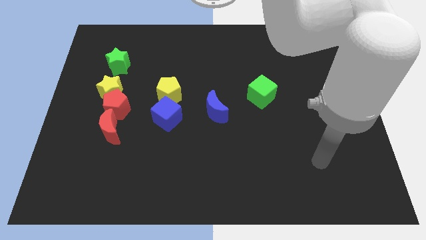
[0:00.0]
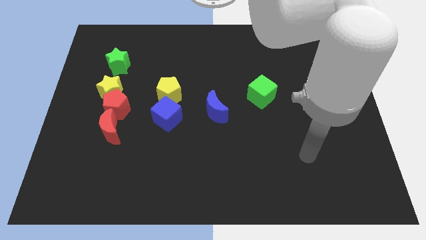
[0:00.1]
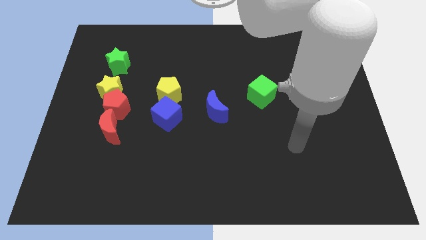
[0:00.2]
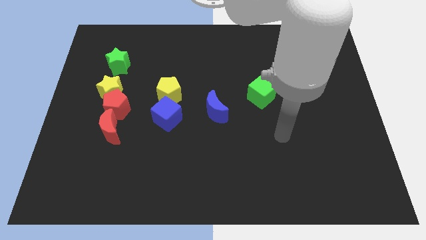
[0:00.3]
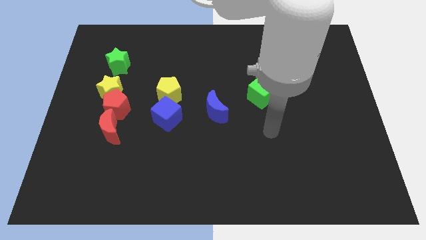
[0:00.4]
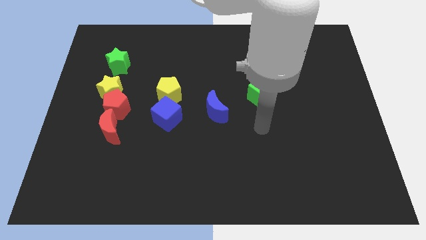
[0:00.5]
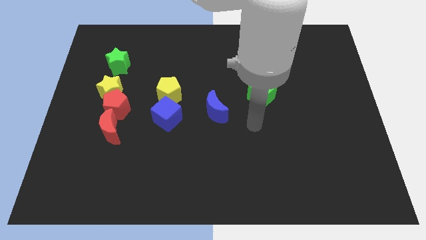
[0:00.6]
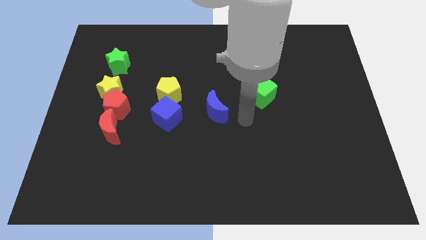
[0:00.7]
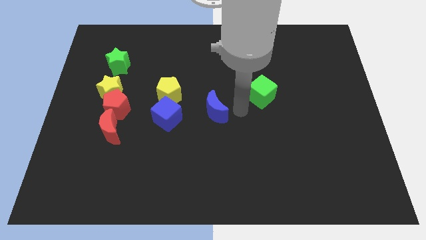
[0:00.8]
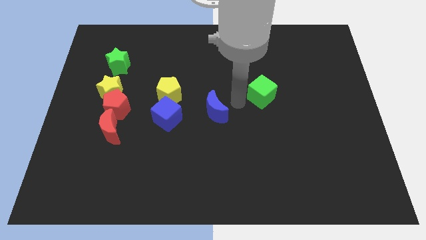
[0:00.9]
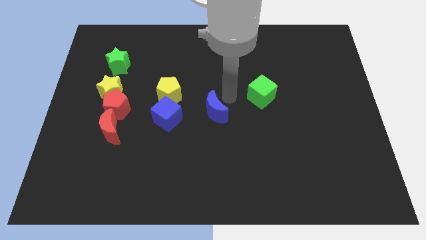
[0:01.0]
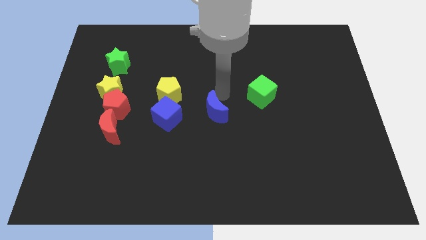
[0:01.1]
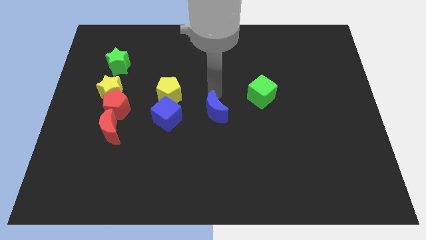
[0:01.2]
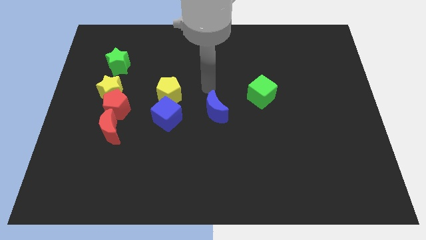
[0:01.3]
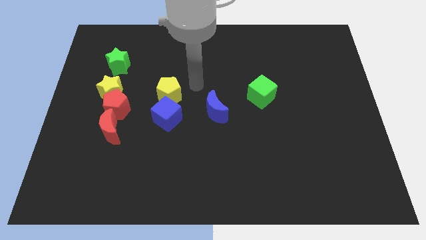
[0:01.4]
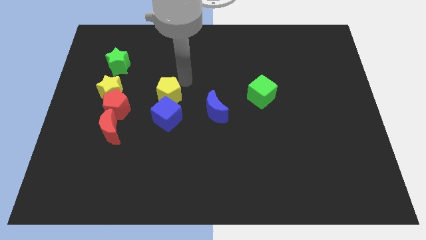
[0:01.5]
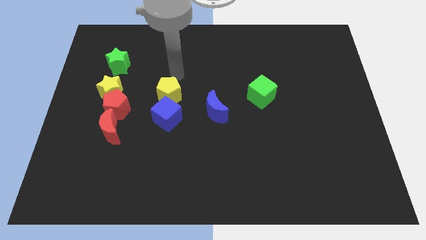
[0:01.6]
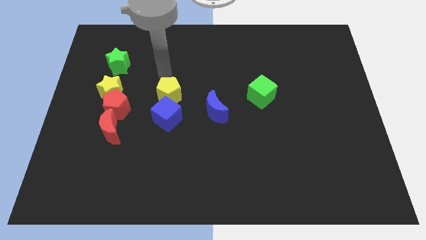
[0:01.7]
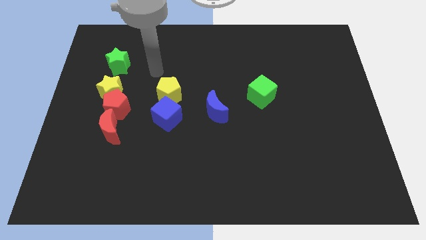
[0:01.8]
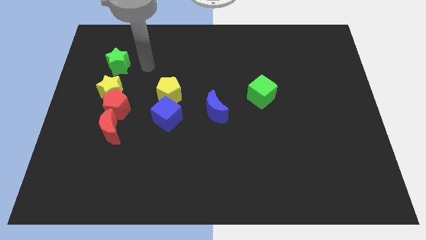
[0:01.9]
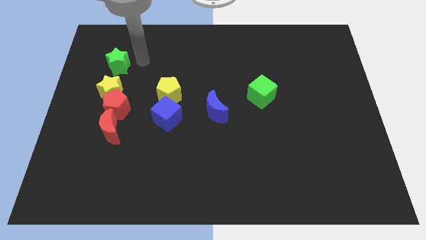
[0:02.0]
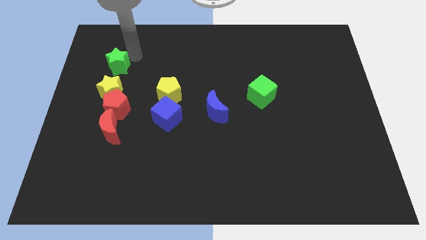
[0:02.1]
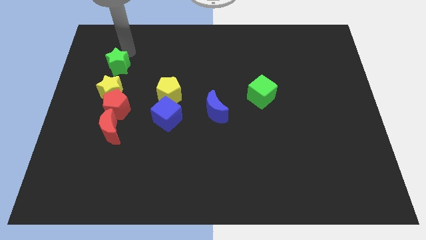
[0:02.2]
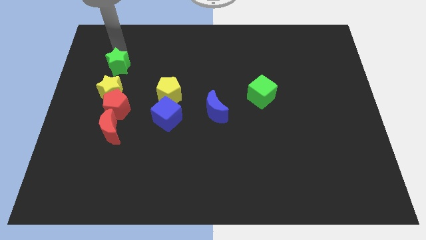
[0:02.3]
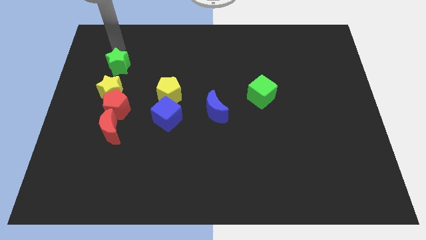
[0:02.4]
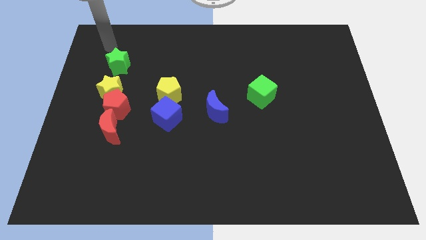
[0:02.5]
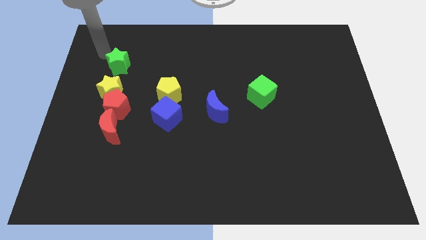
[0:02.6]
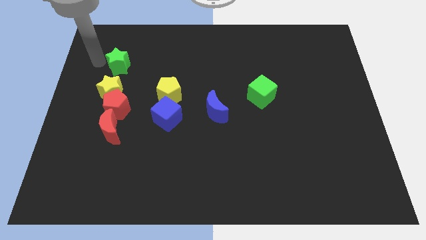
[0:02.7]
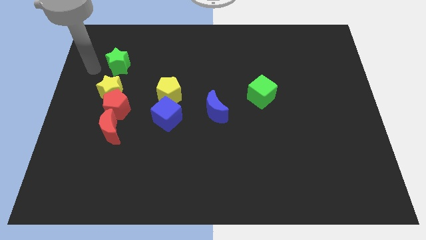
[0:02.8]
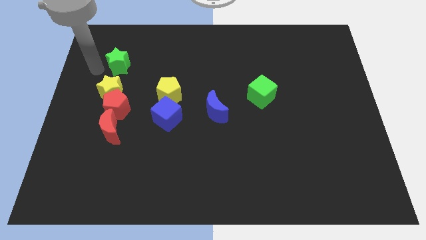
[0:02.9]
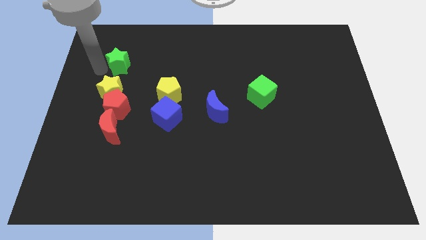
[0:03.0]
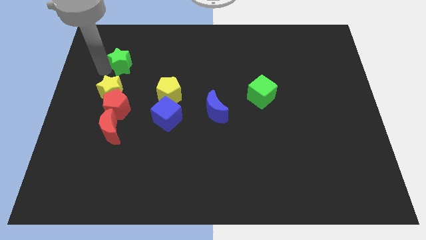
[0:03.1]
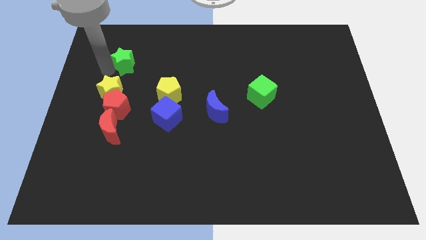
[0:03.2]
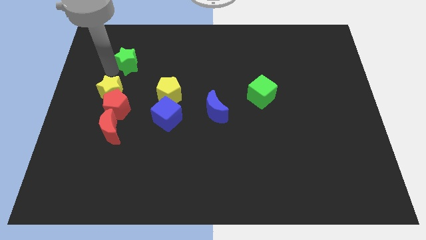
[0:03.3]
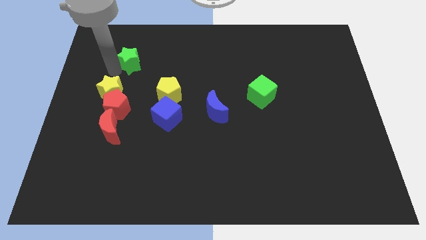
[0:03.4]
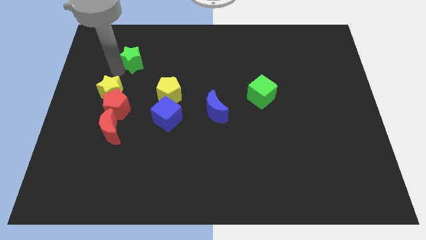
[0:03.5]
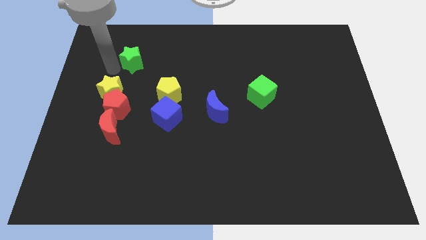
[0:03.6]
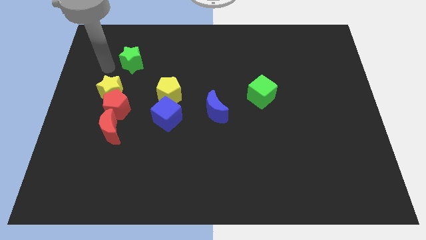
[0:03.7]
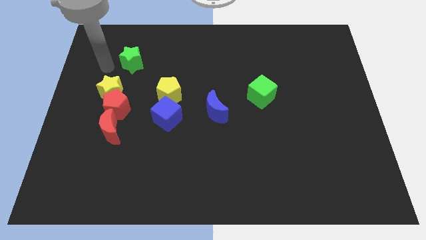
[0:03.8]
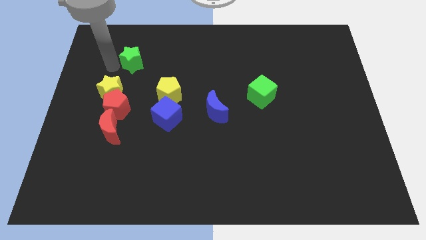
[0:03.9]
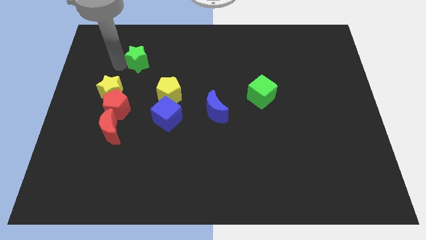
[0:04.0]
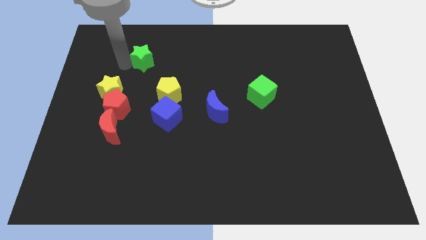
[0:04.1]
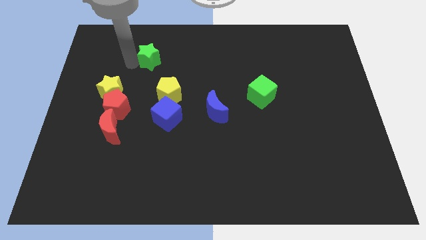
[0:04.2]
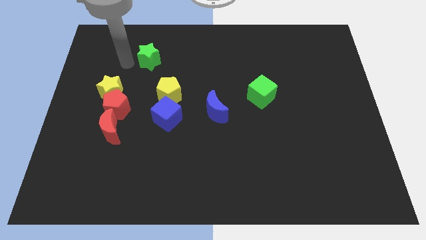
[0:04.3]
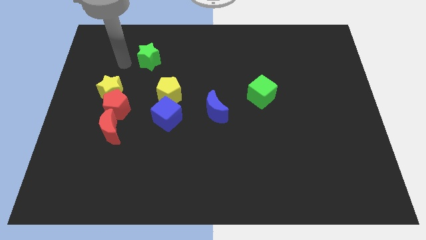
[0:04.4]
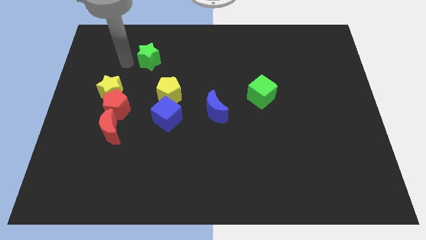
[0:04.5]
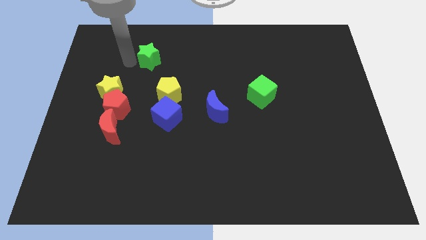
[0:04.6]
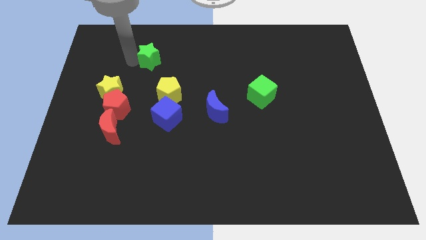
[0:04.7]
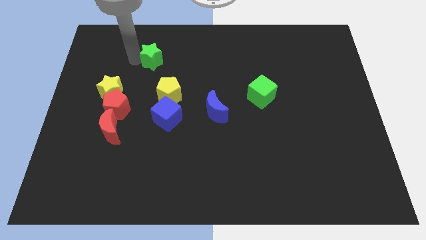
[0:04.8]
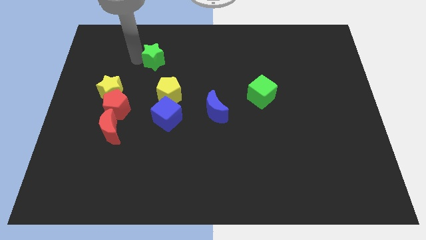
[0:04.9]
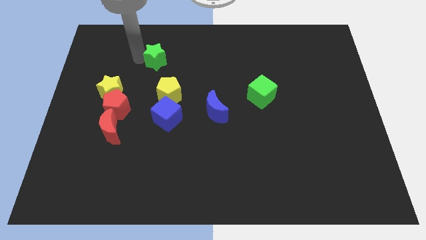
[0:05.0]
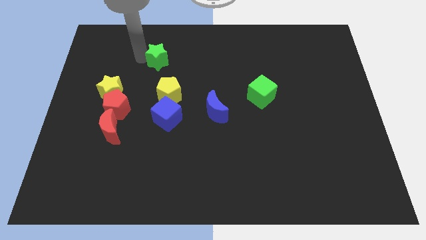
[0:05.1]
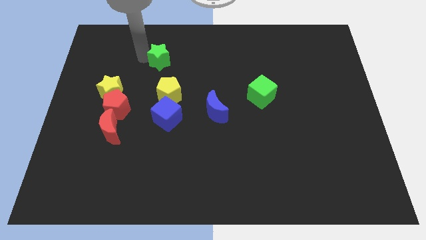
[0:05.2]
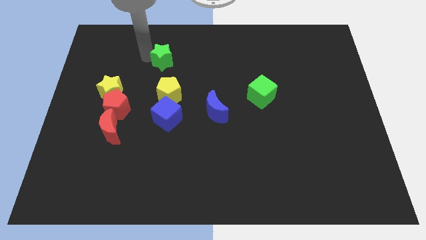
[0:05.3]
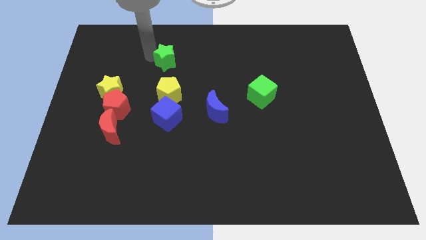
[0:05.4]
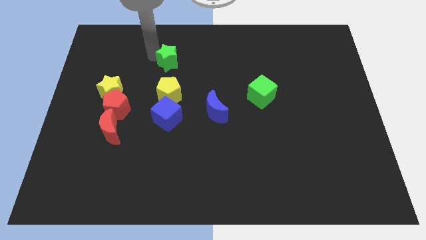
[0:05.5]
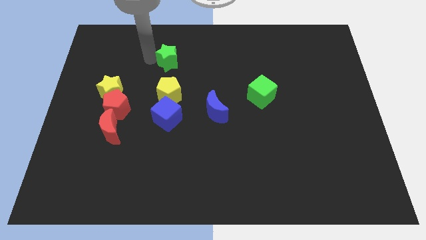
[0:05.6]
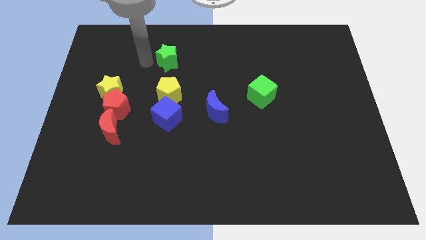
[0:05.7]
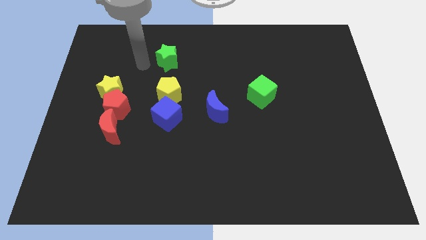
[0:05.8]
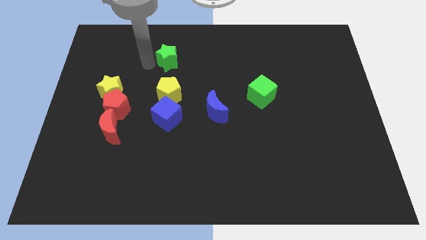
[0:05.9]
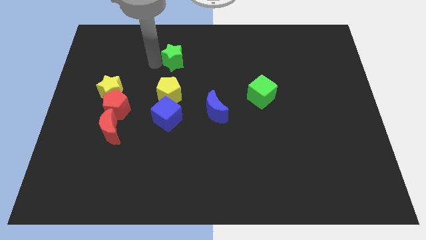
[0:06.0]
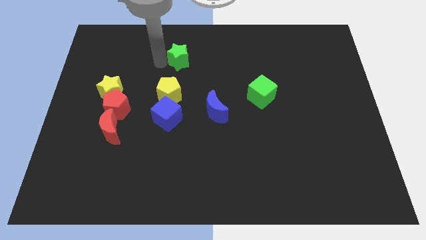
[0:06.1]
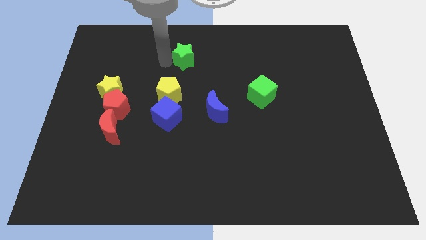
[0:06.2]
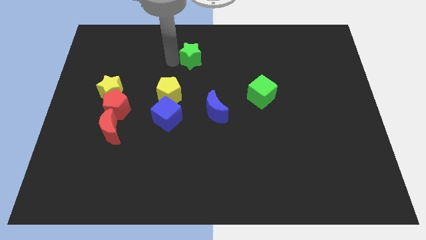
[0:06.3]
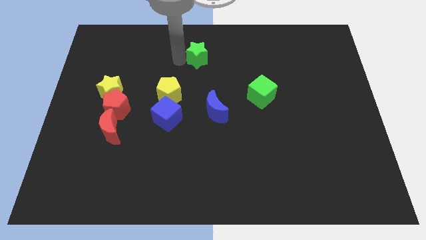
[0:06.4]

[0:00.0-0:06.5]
slide the green star to the right

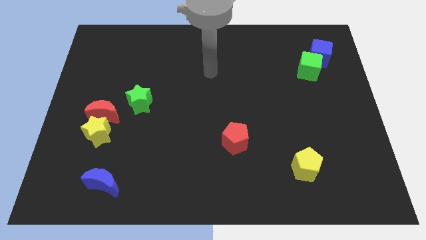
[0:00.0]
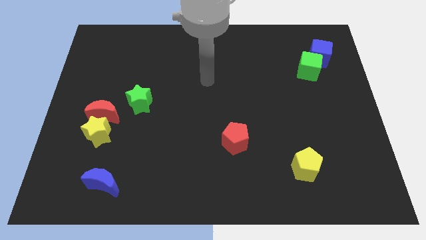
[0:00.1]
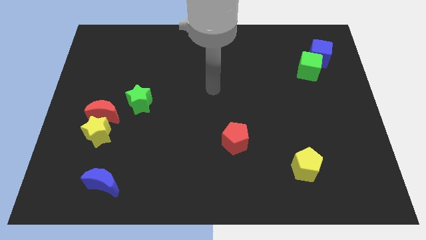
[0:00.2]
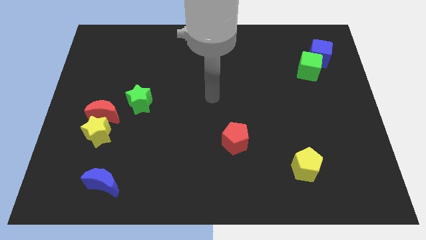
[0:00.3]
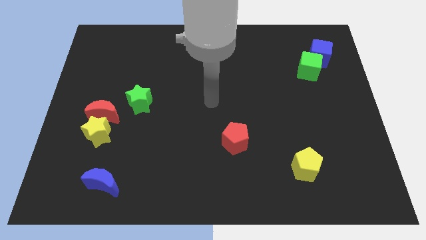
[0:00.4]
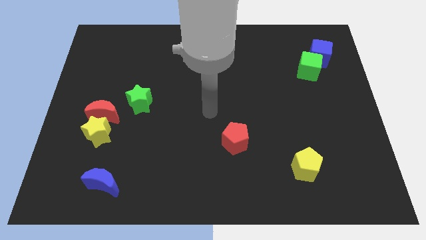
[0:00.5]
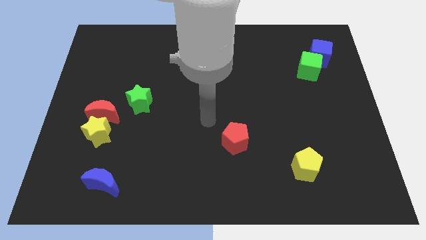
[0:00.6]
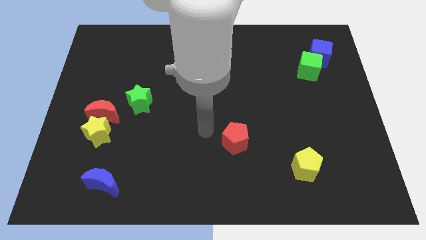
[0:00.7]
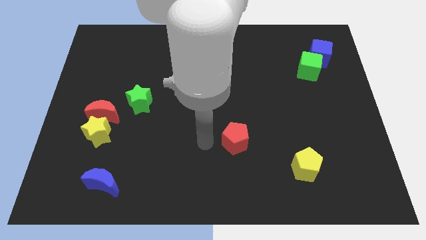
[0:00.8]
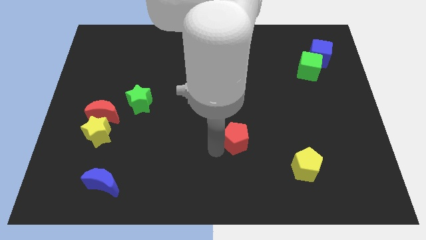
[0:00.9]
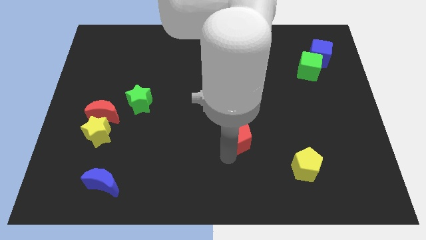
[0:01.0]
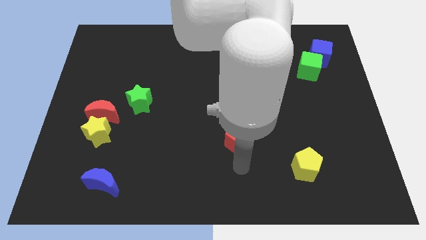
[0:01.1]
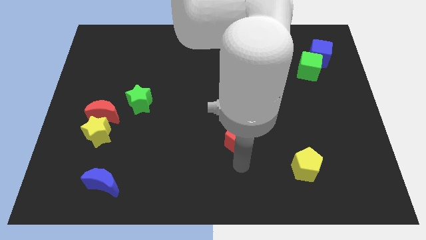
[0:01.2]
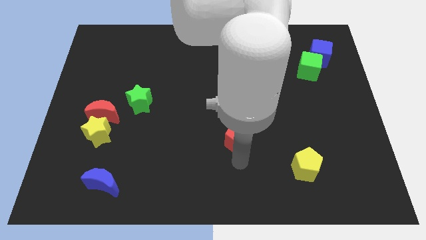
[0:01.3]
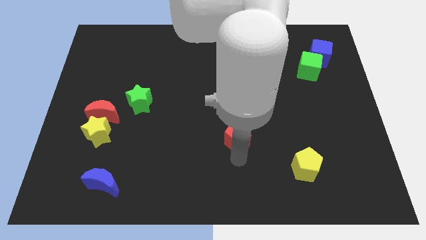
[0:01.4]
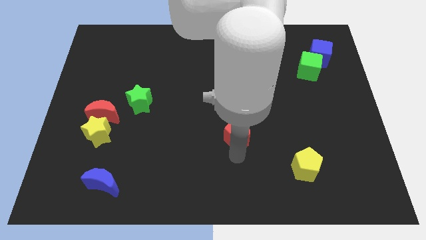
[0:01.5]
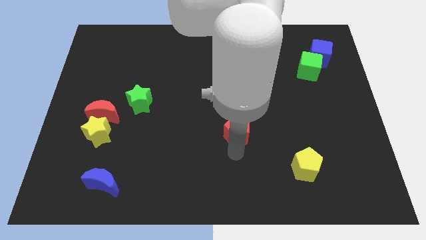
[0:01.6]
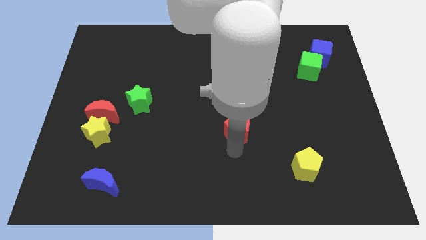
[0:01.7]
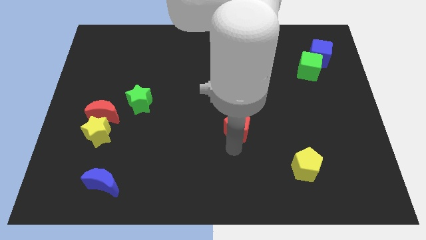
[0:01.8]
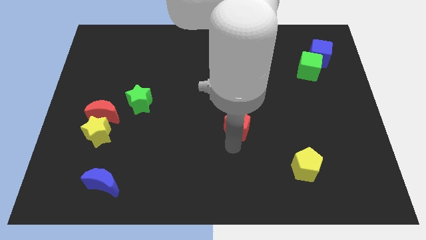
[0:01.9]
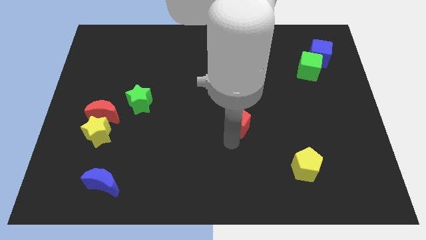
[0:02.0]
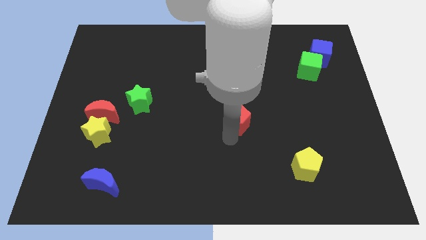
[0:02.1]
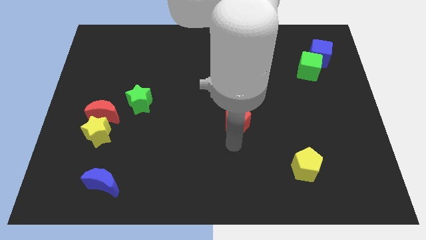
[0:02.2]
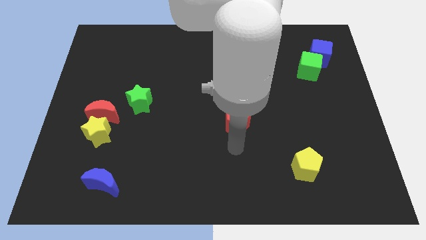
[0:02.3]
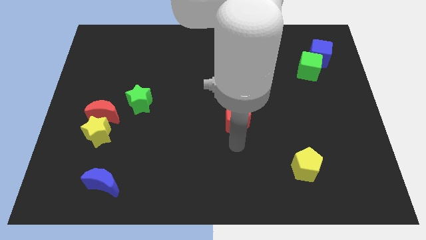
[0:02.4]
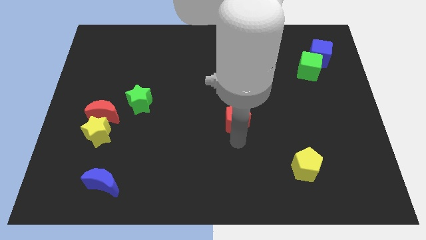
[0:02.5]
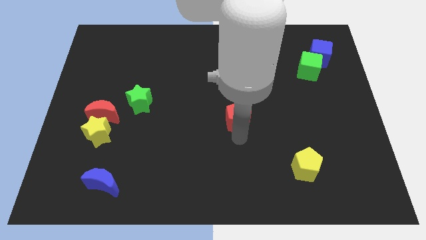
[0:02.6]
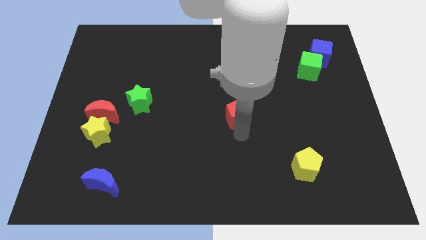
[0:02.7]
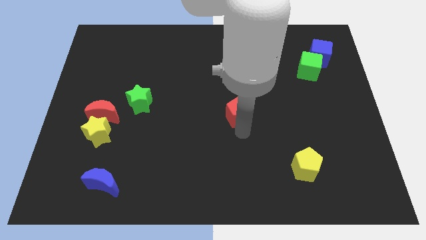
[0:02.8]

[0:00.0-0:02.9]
slightly move the red pentagon up
